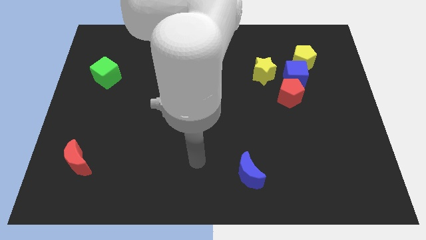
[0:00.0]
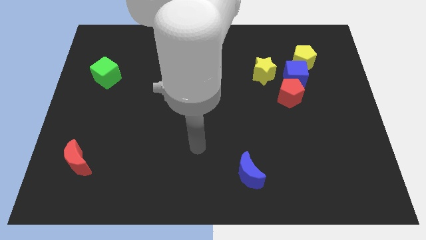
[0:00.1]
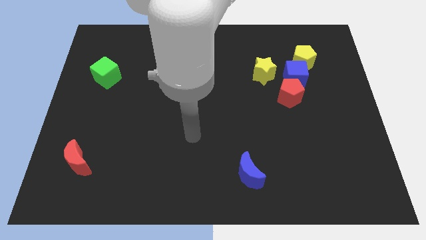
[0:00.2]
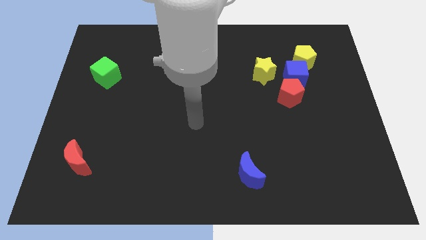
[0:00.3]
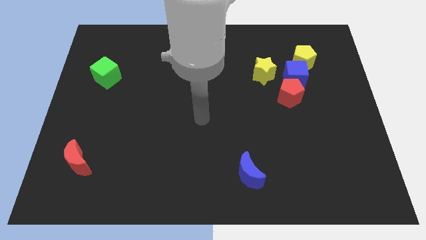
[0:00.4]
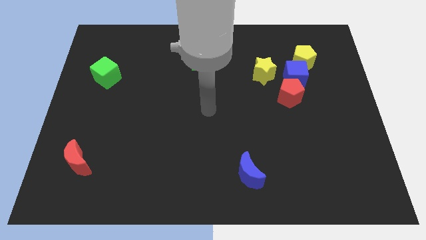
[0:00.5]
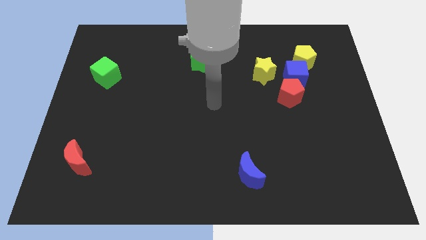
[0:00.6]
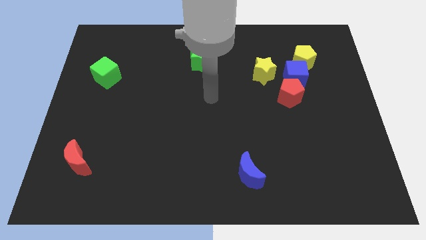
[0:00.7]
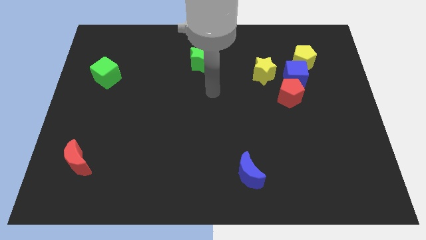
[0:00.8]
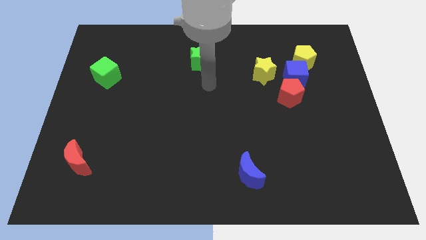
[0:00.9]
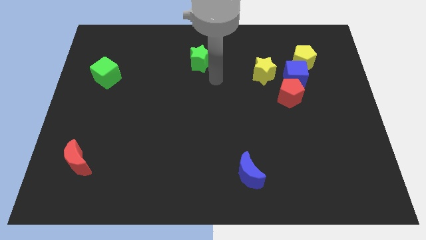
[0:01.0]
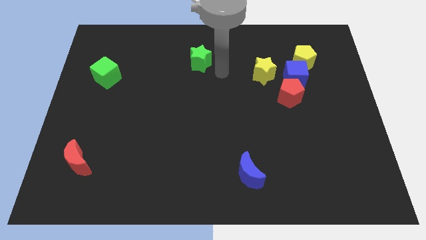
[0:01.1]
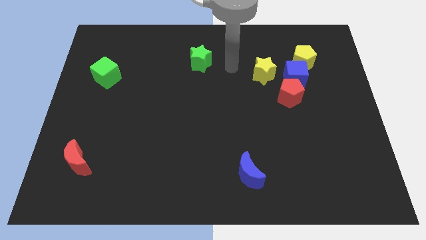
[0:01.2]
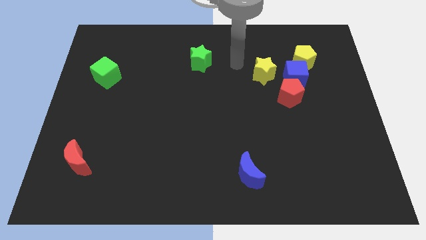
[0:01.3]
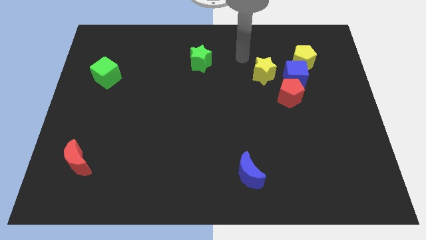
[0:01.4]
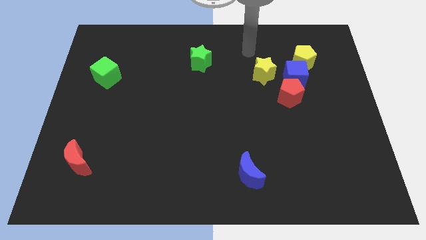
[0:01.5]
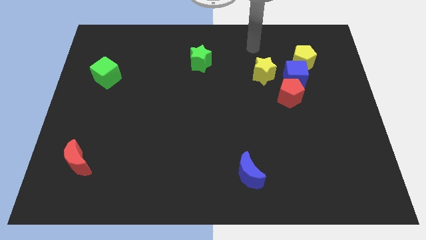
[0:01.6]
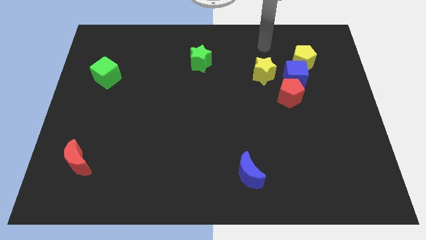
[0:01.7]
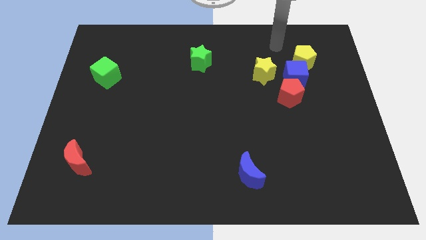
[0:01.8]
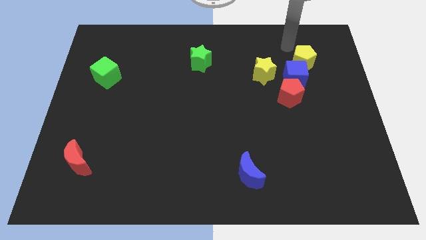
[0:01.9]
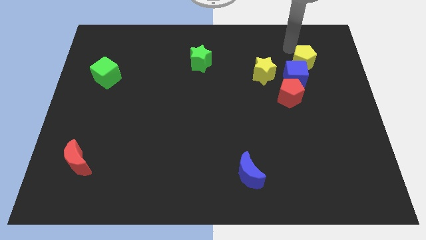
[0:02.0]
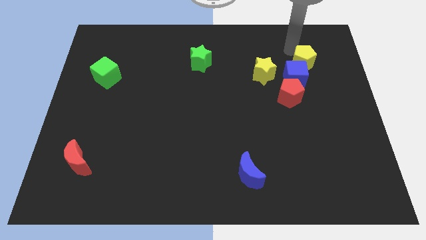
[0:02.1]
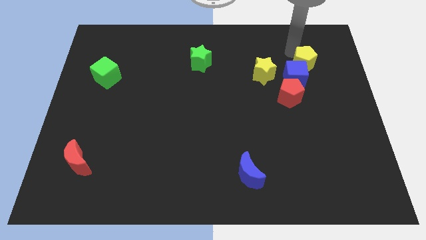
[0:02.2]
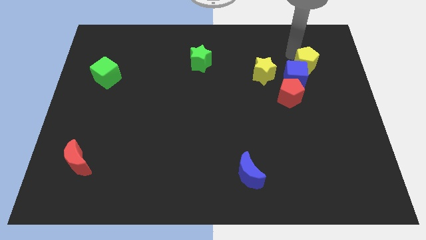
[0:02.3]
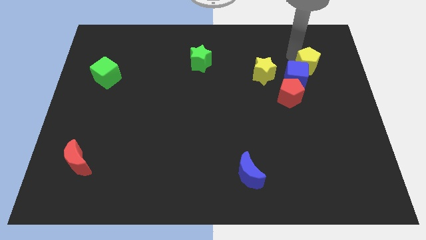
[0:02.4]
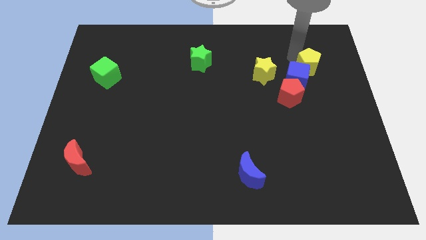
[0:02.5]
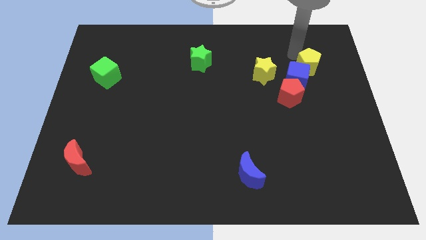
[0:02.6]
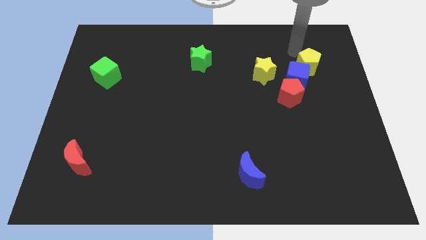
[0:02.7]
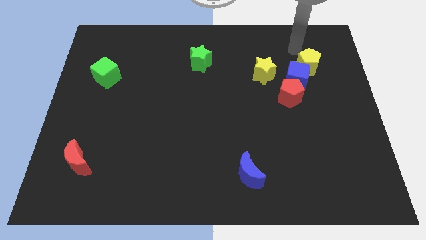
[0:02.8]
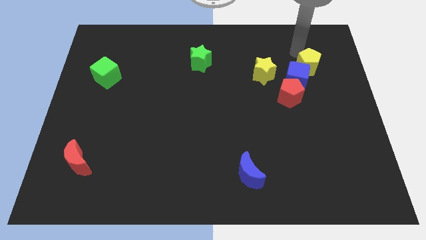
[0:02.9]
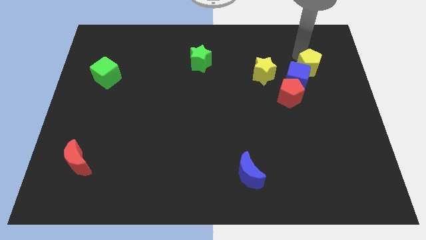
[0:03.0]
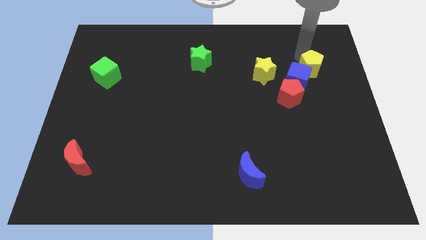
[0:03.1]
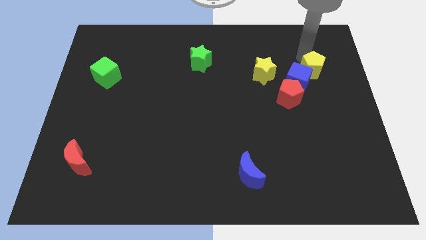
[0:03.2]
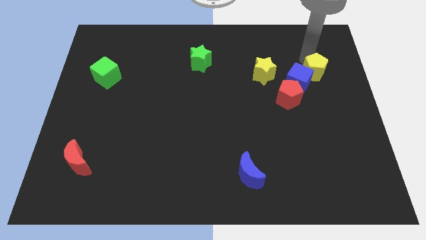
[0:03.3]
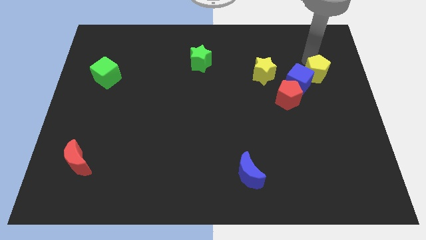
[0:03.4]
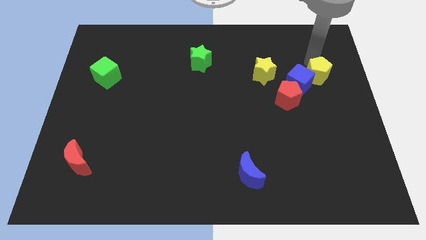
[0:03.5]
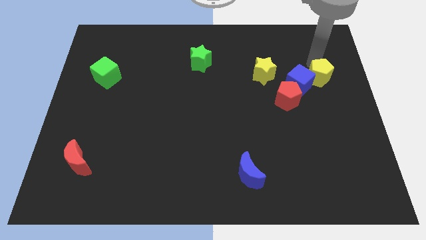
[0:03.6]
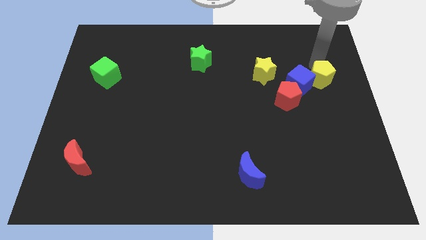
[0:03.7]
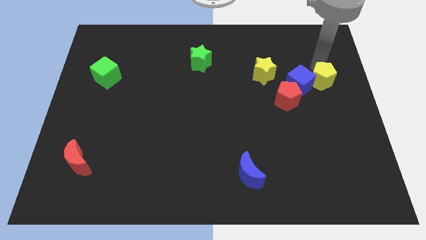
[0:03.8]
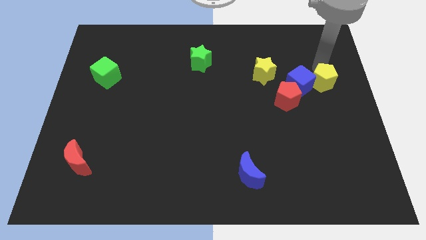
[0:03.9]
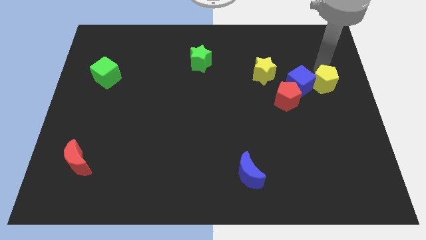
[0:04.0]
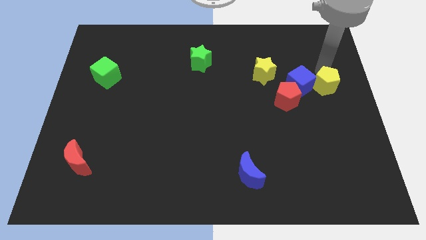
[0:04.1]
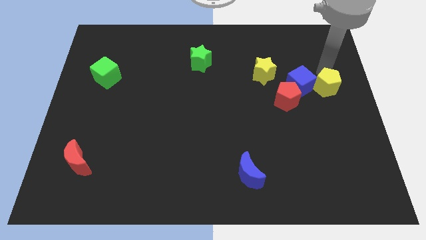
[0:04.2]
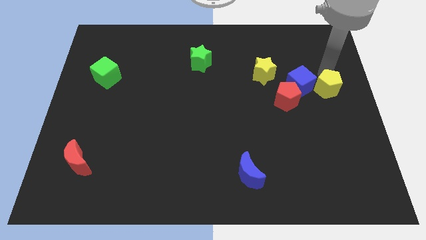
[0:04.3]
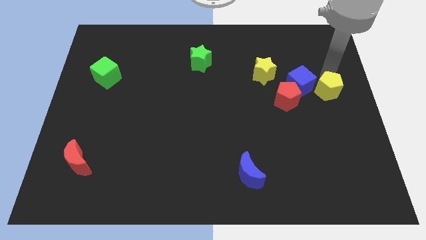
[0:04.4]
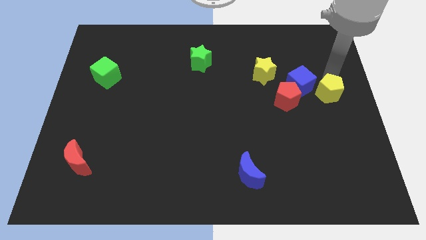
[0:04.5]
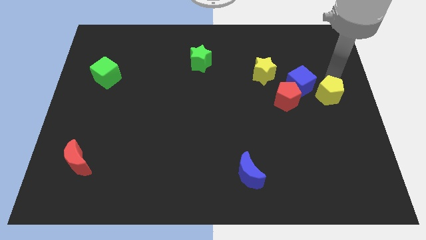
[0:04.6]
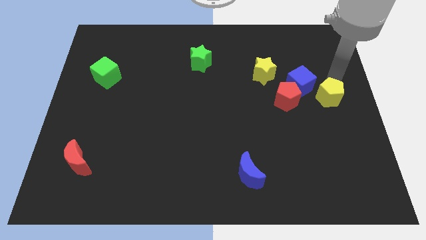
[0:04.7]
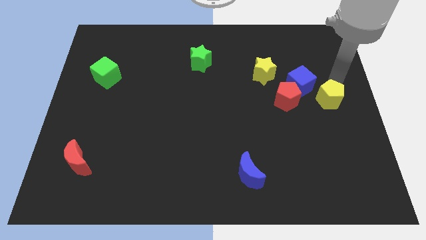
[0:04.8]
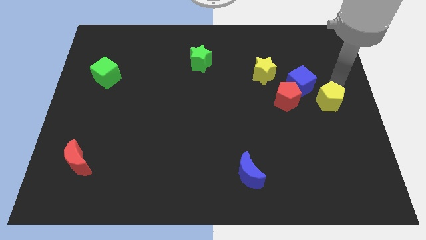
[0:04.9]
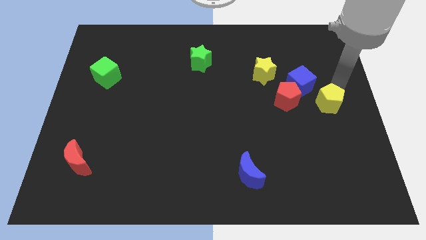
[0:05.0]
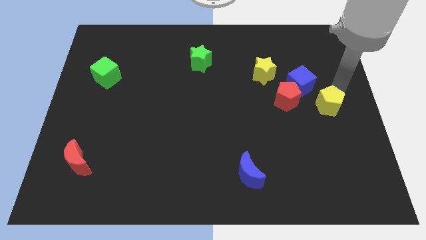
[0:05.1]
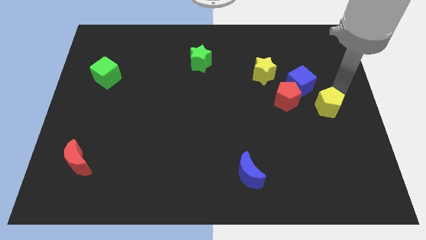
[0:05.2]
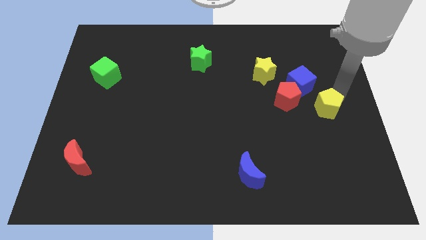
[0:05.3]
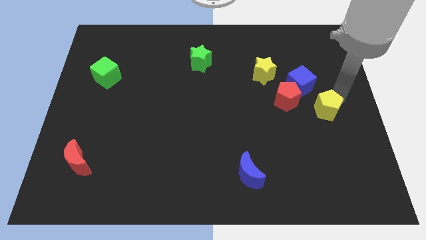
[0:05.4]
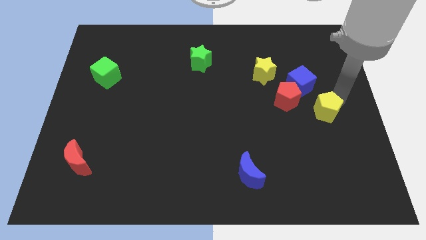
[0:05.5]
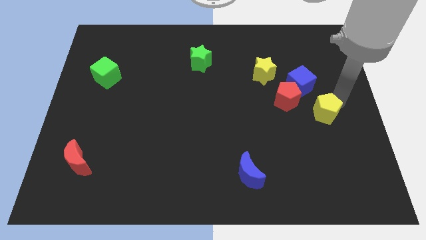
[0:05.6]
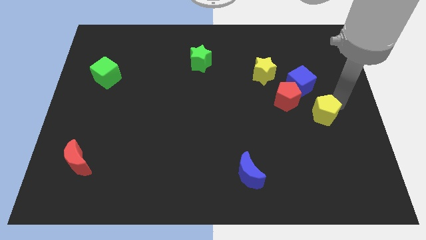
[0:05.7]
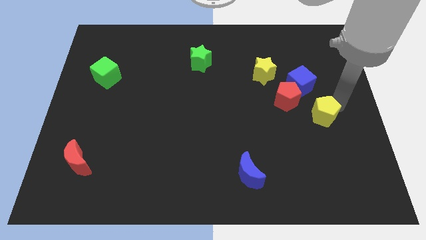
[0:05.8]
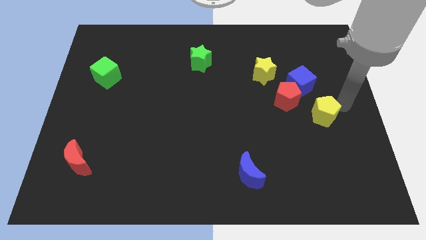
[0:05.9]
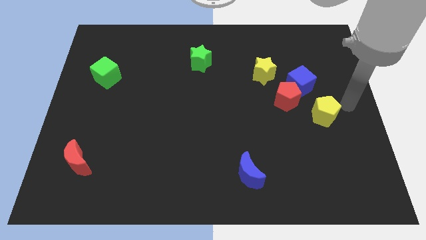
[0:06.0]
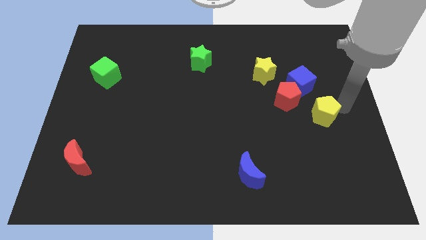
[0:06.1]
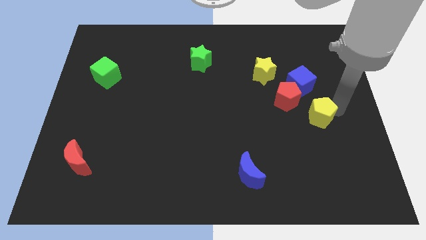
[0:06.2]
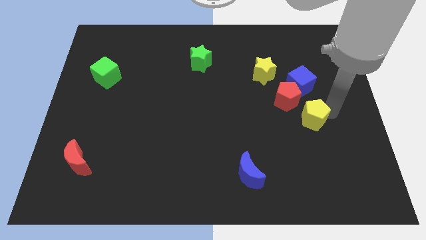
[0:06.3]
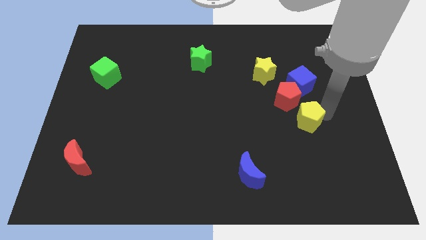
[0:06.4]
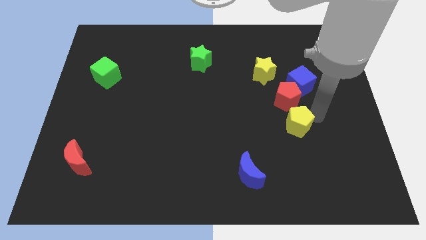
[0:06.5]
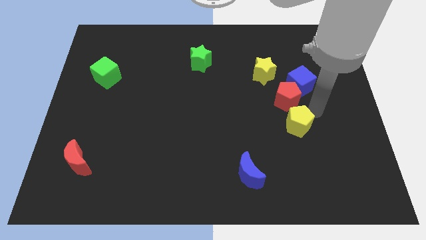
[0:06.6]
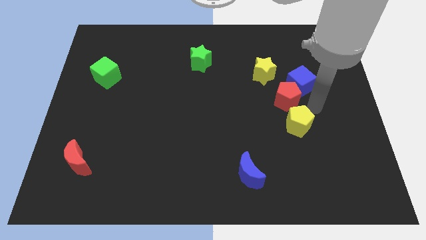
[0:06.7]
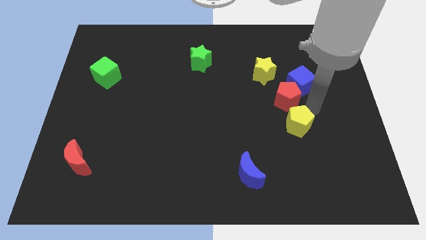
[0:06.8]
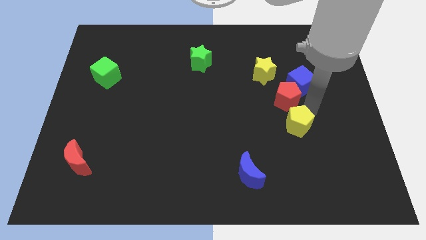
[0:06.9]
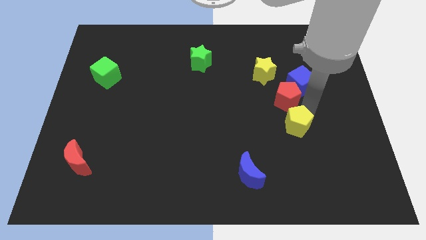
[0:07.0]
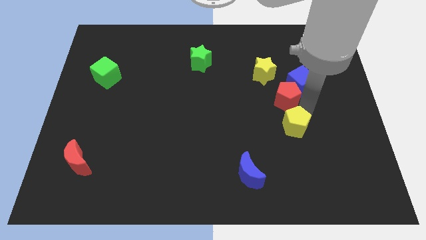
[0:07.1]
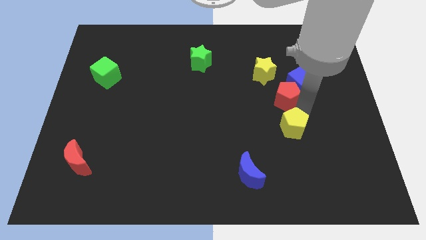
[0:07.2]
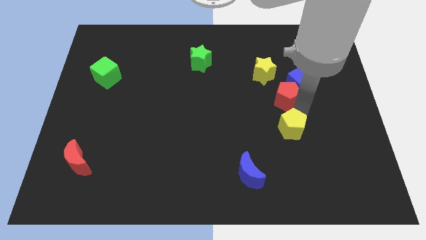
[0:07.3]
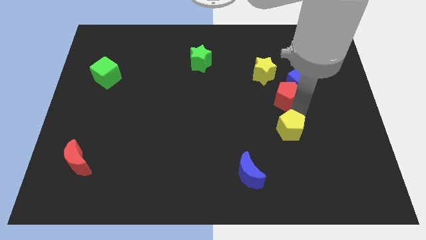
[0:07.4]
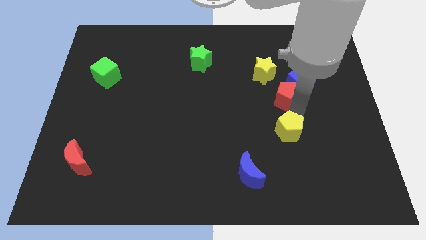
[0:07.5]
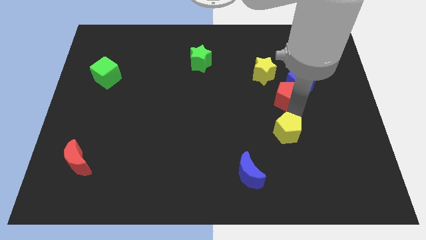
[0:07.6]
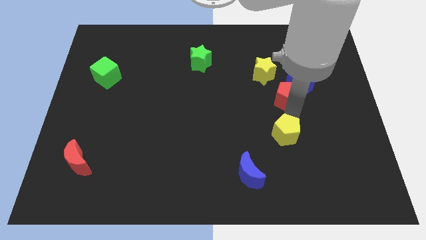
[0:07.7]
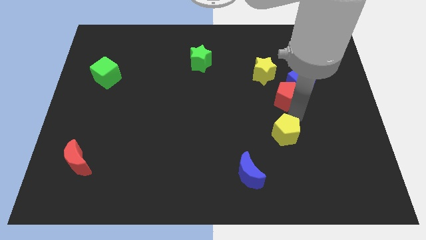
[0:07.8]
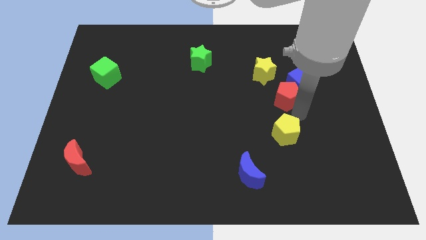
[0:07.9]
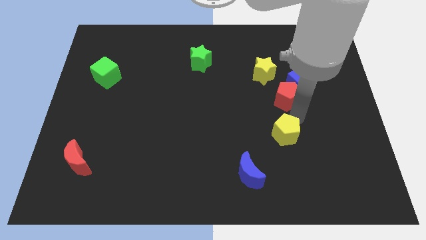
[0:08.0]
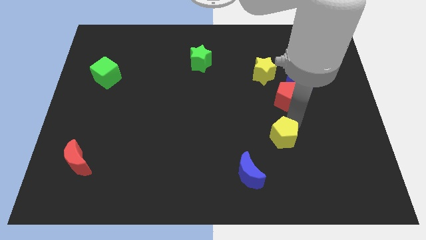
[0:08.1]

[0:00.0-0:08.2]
push the yellow pentagon to the top right of the blue moon
